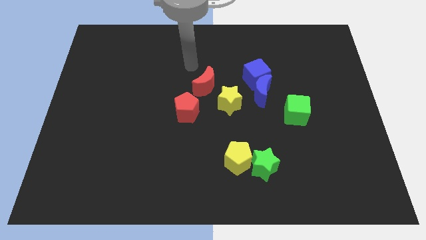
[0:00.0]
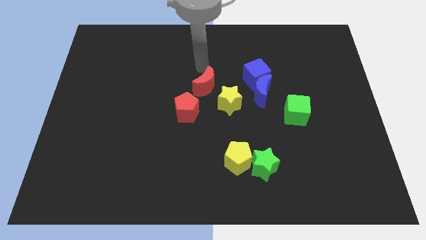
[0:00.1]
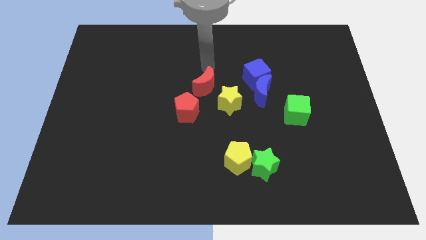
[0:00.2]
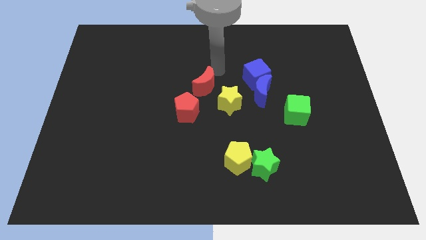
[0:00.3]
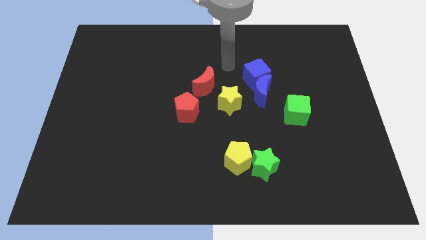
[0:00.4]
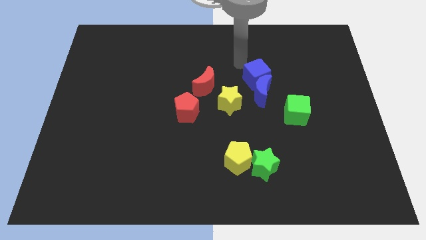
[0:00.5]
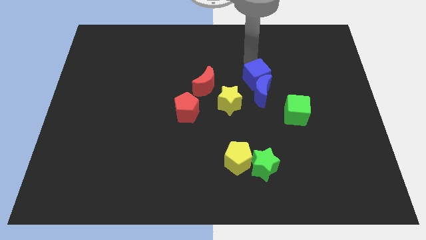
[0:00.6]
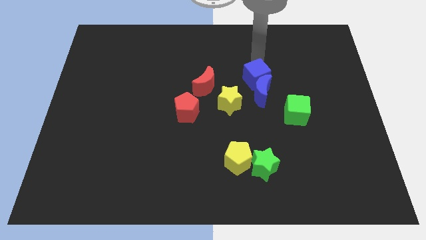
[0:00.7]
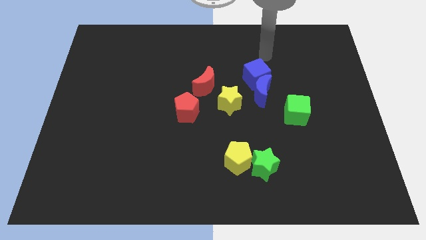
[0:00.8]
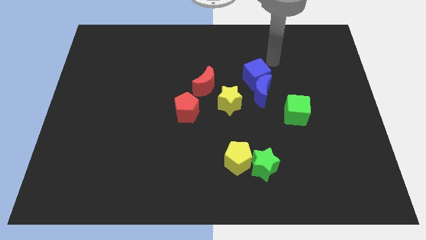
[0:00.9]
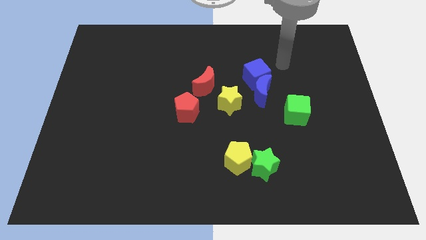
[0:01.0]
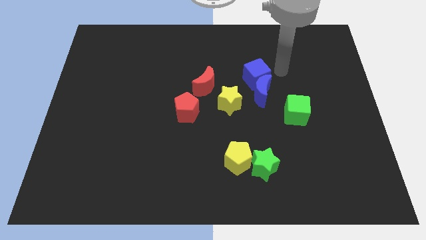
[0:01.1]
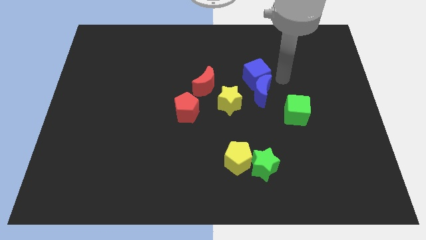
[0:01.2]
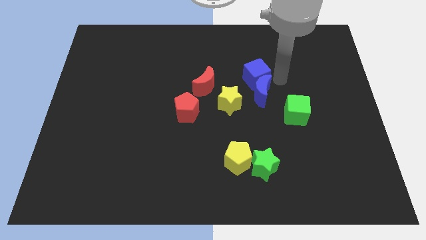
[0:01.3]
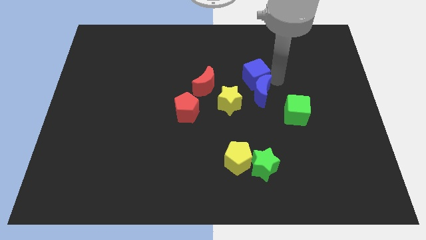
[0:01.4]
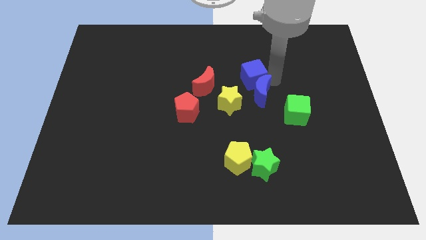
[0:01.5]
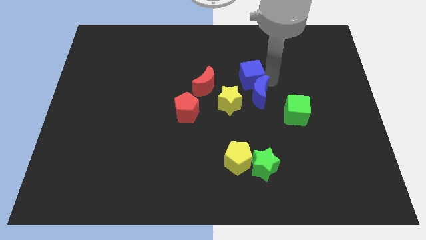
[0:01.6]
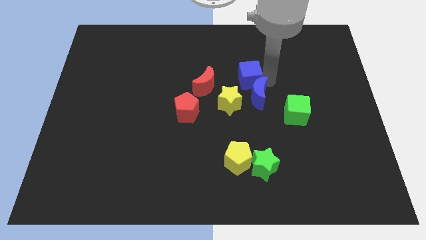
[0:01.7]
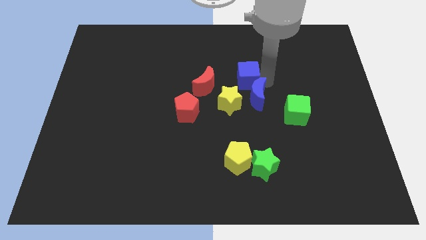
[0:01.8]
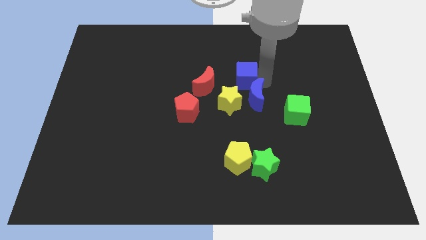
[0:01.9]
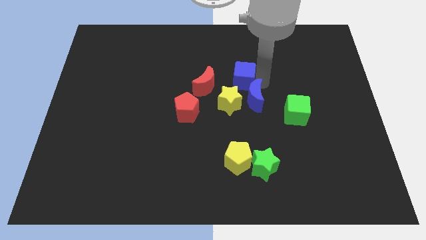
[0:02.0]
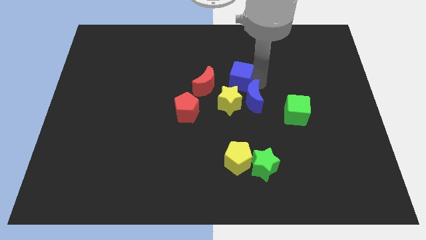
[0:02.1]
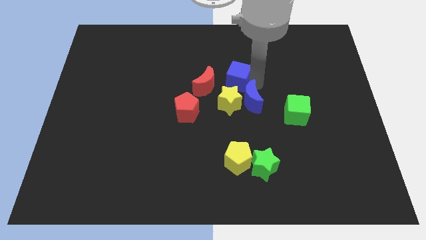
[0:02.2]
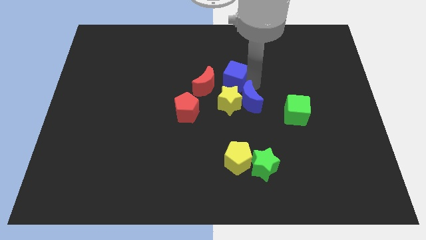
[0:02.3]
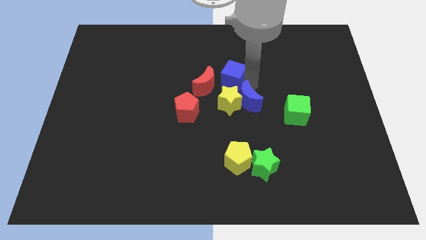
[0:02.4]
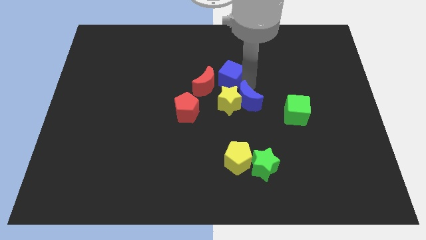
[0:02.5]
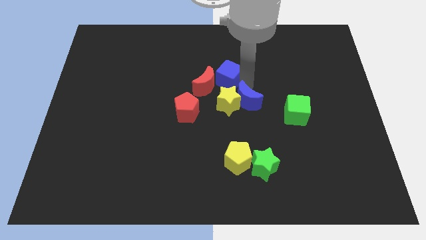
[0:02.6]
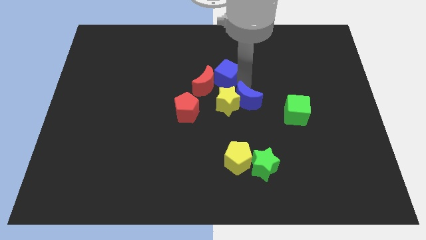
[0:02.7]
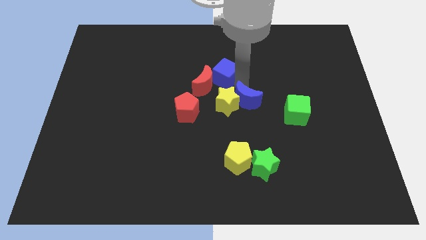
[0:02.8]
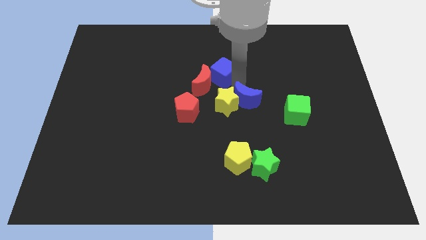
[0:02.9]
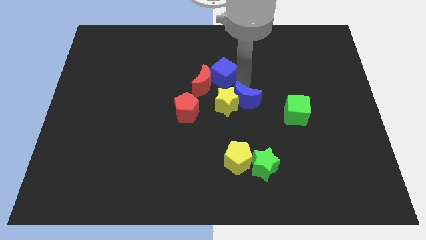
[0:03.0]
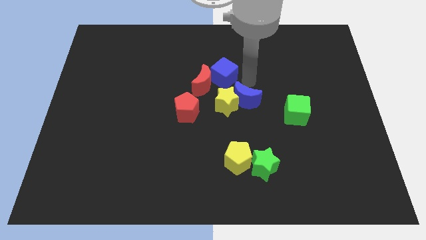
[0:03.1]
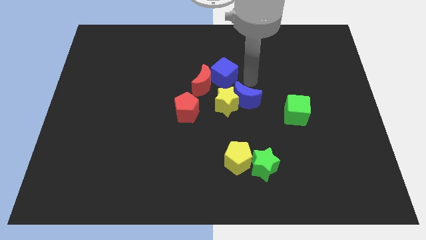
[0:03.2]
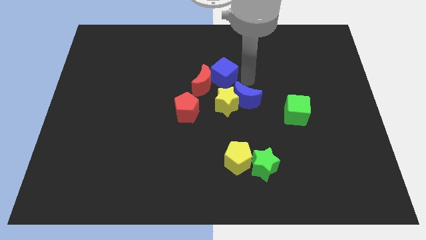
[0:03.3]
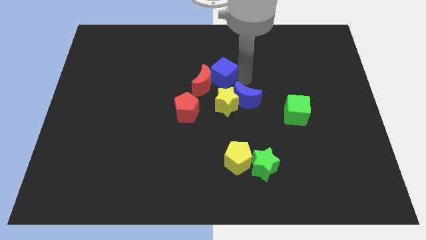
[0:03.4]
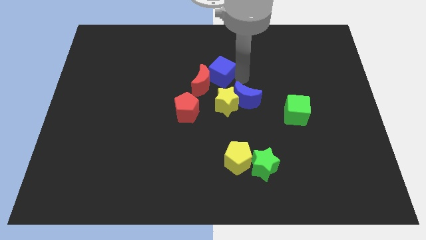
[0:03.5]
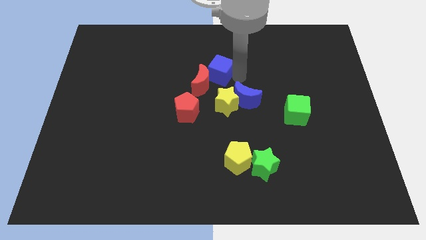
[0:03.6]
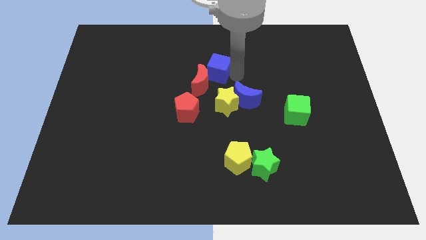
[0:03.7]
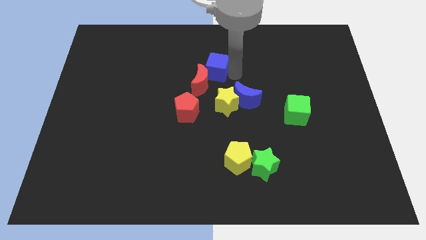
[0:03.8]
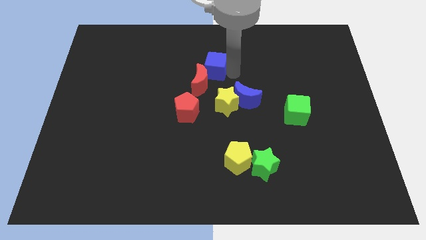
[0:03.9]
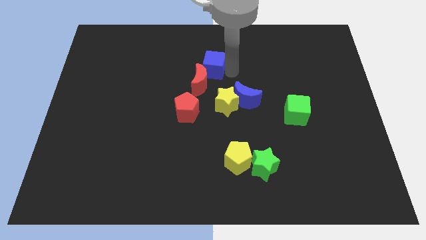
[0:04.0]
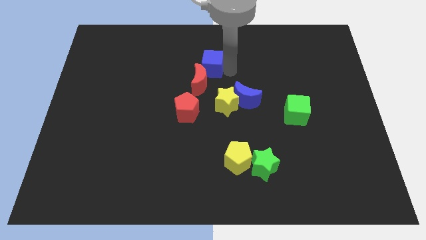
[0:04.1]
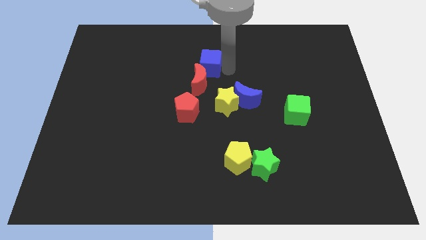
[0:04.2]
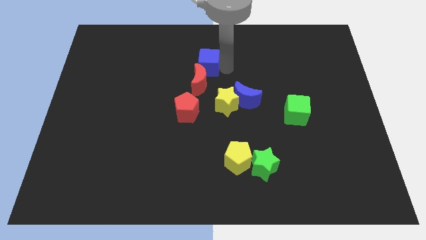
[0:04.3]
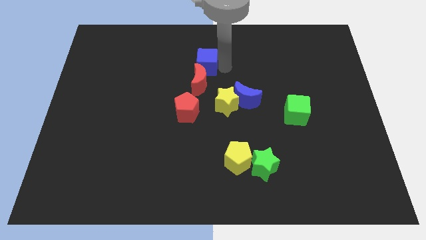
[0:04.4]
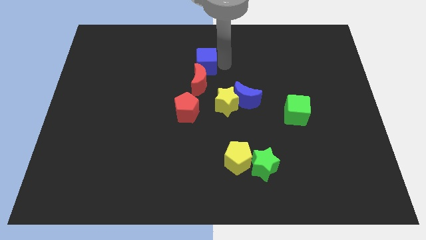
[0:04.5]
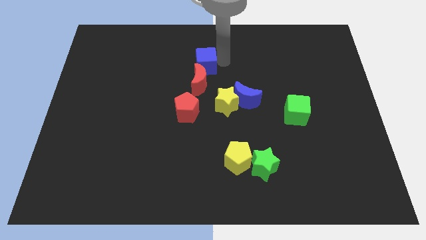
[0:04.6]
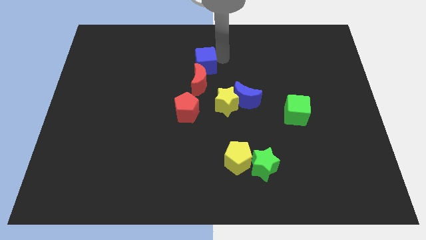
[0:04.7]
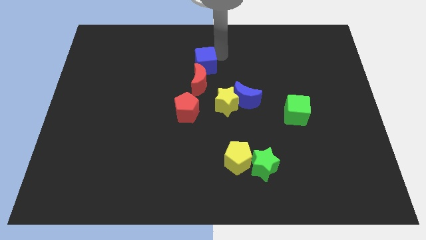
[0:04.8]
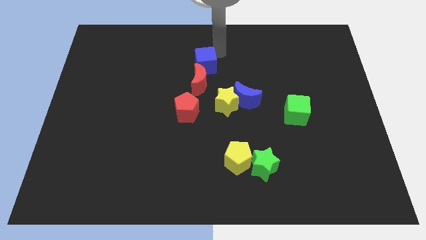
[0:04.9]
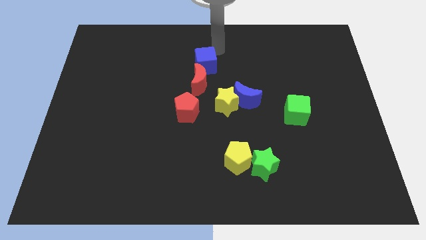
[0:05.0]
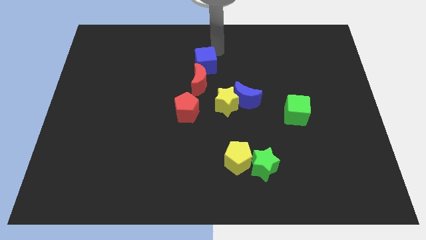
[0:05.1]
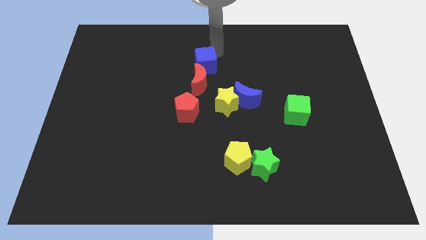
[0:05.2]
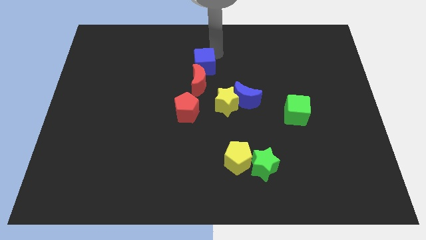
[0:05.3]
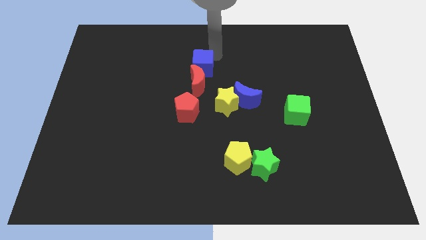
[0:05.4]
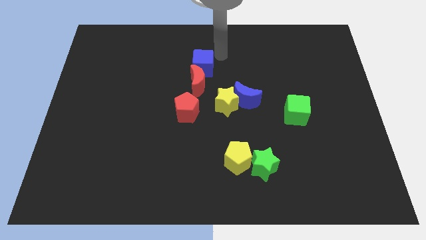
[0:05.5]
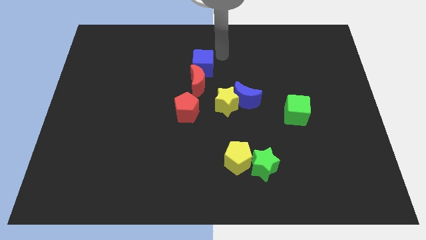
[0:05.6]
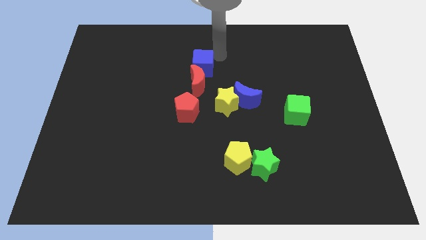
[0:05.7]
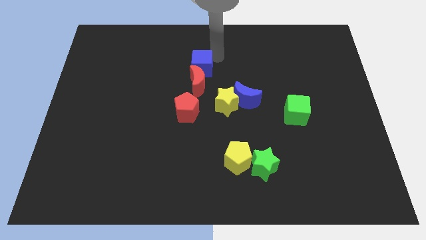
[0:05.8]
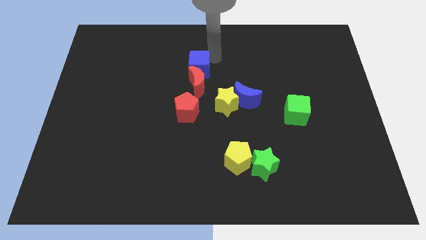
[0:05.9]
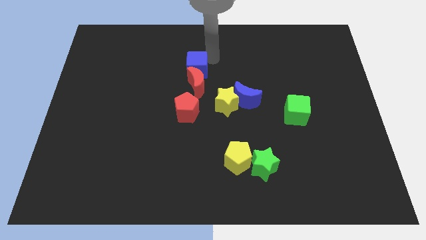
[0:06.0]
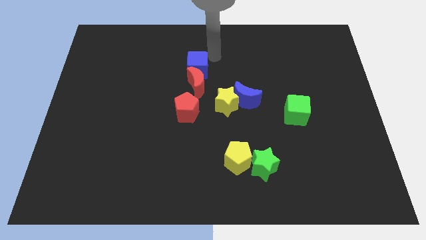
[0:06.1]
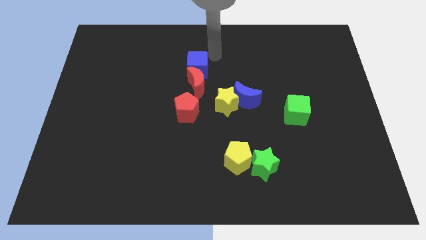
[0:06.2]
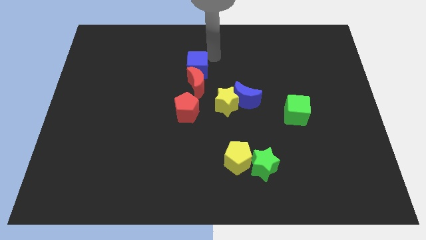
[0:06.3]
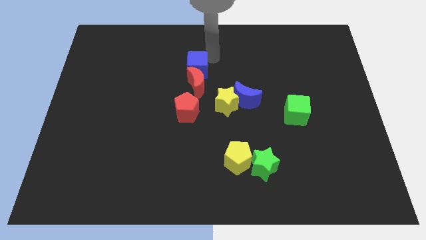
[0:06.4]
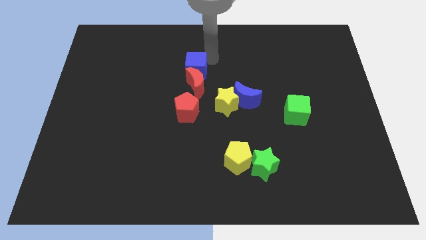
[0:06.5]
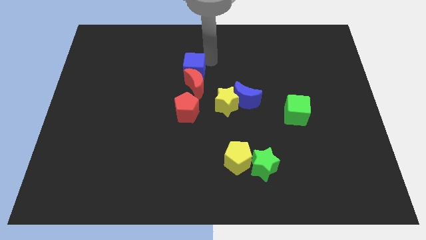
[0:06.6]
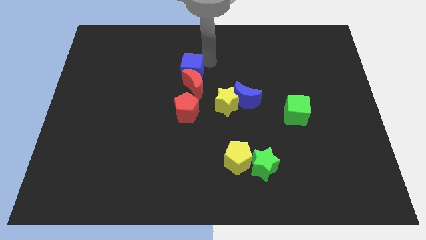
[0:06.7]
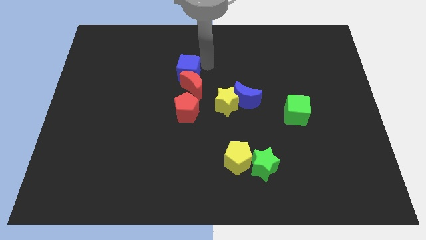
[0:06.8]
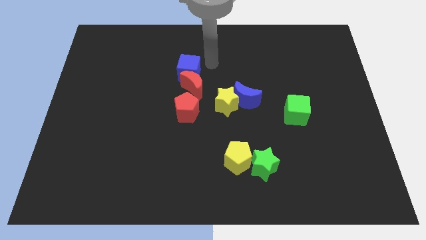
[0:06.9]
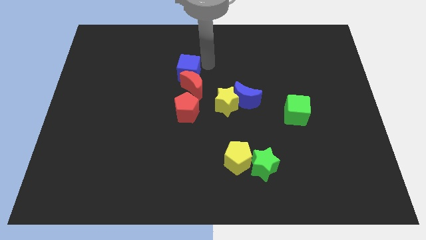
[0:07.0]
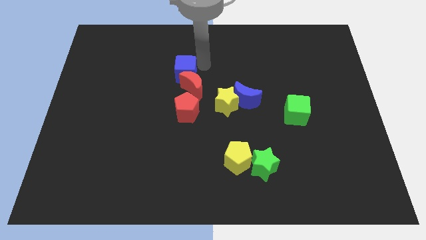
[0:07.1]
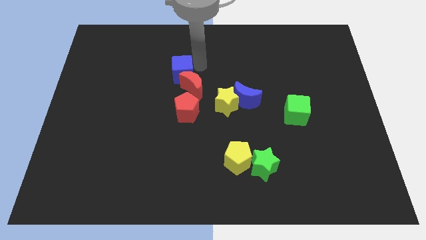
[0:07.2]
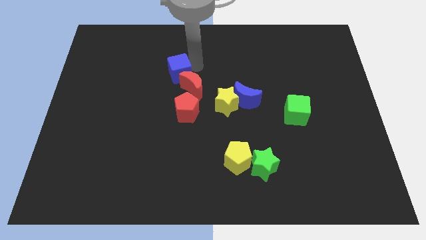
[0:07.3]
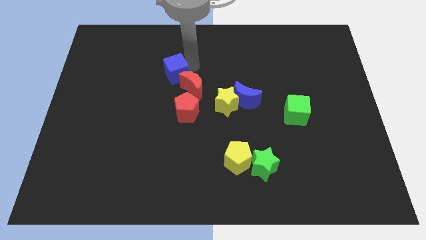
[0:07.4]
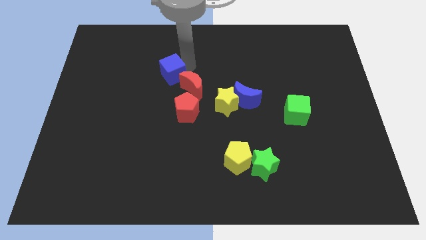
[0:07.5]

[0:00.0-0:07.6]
slide the blue cube to the left of the red moon
